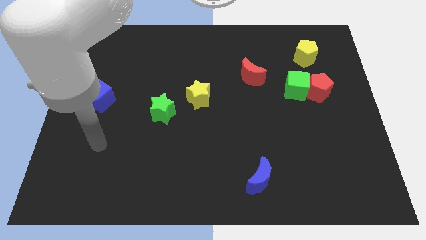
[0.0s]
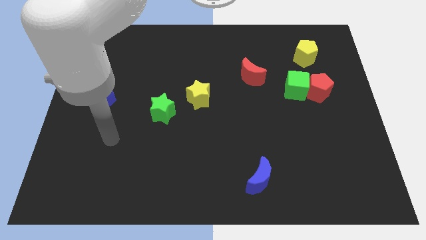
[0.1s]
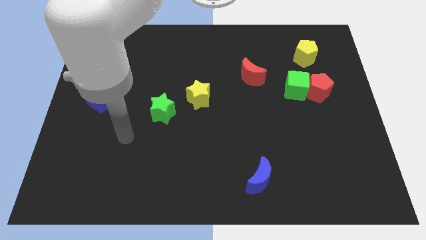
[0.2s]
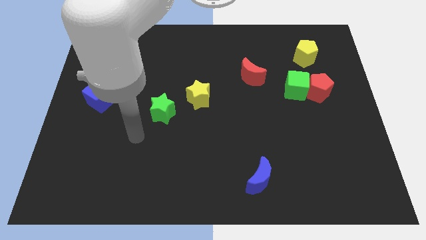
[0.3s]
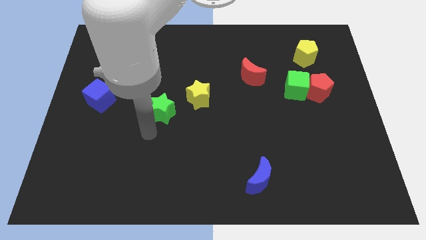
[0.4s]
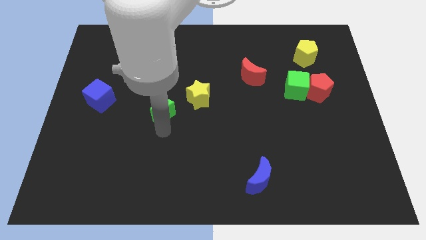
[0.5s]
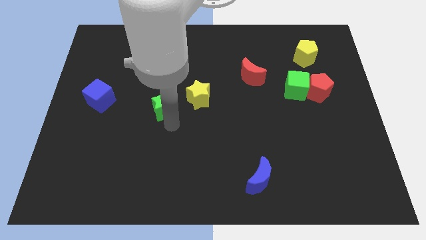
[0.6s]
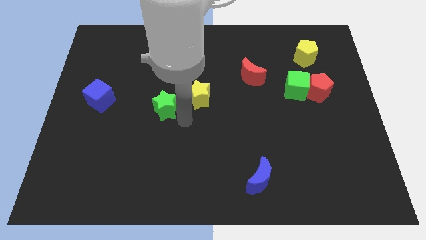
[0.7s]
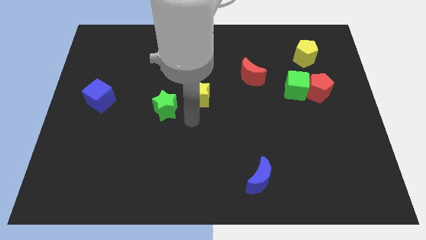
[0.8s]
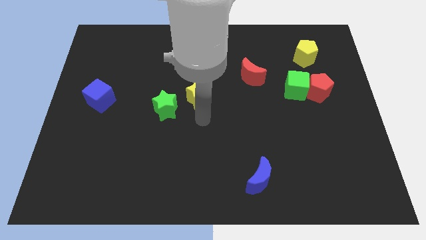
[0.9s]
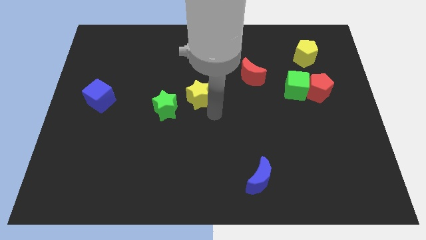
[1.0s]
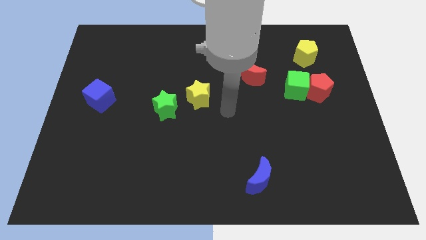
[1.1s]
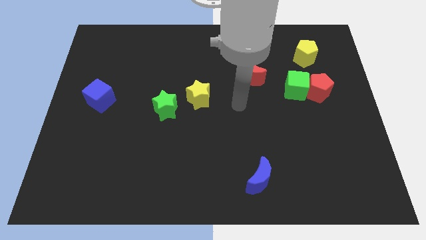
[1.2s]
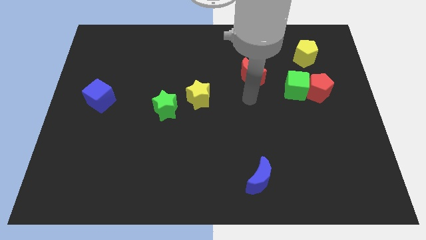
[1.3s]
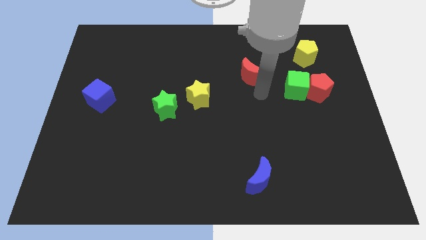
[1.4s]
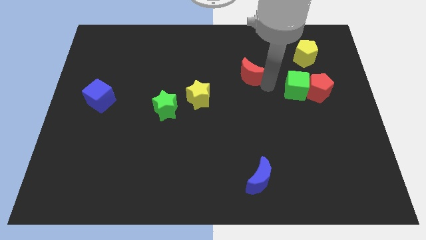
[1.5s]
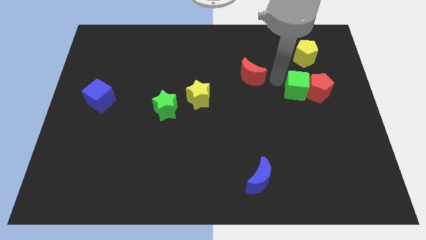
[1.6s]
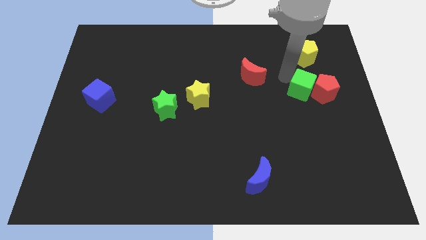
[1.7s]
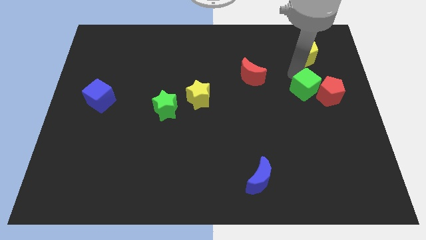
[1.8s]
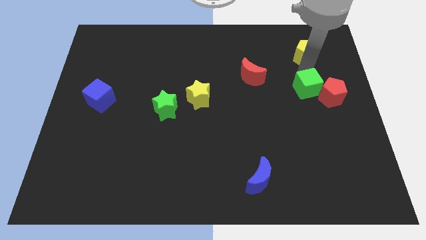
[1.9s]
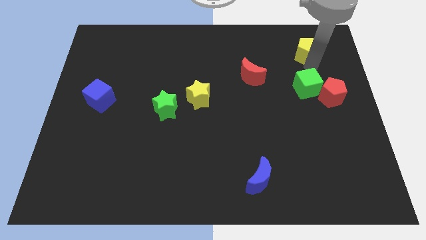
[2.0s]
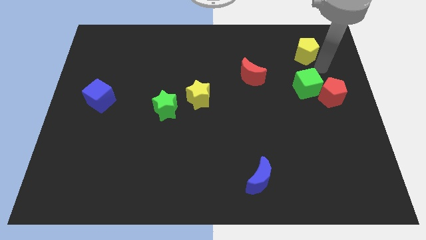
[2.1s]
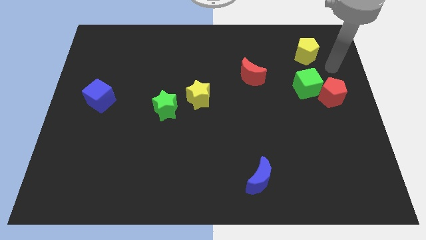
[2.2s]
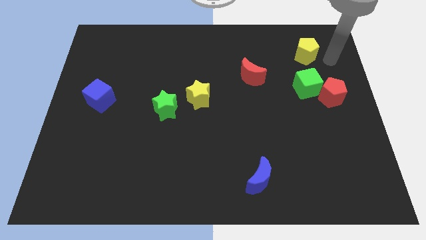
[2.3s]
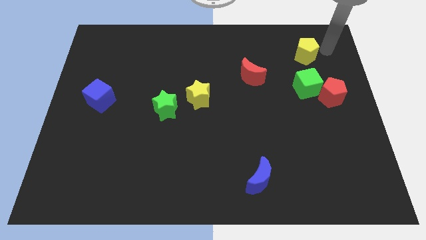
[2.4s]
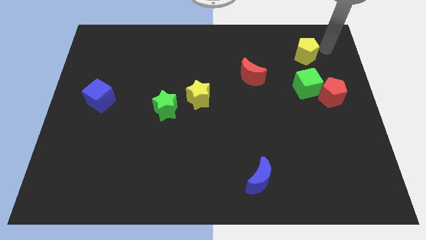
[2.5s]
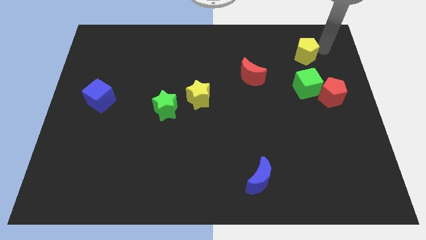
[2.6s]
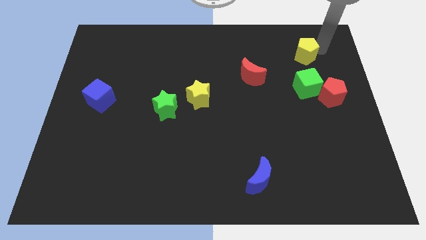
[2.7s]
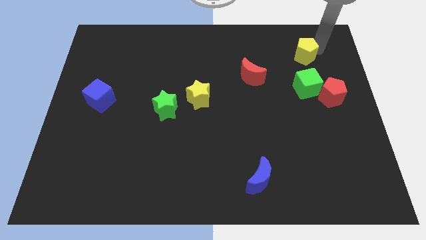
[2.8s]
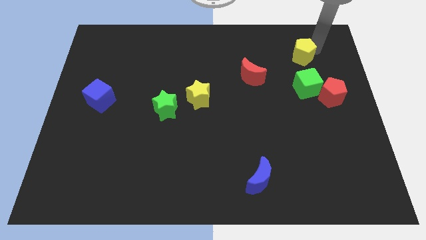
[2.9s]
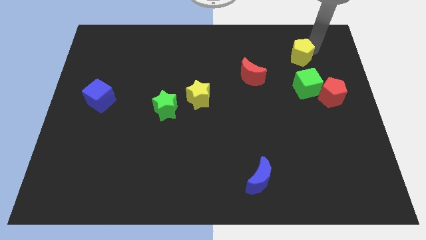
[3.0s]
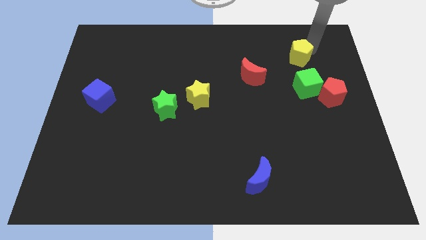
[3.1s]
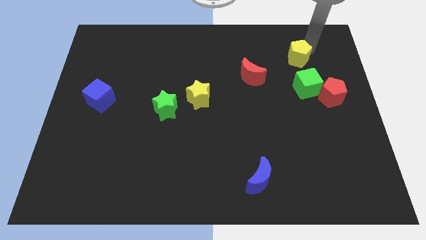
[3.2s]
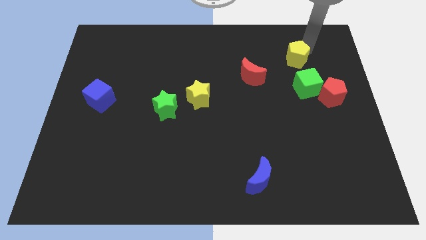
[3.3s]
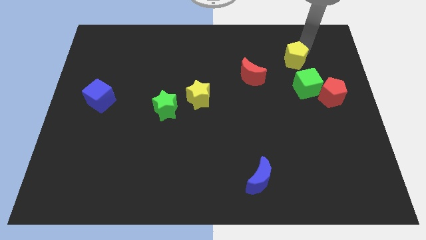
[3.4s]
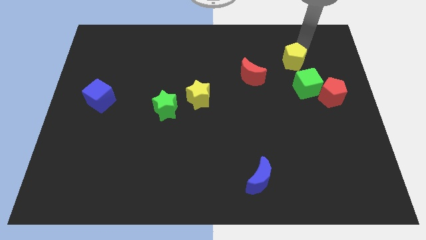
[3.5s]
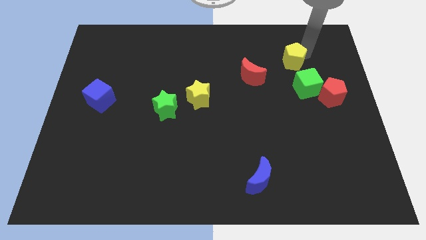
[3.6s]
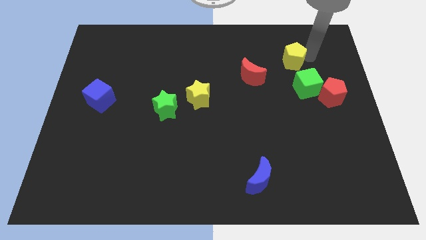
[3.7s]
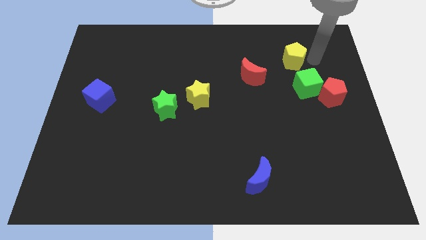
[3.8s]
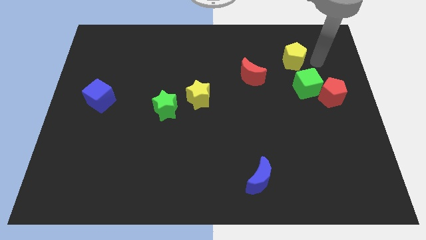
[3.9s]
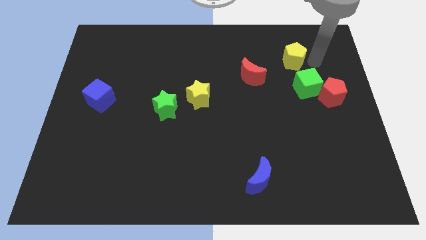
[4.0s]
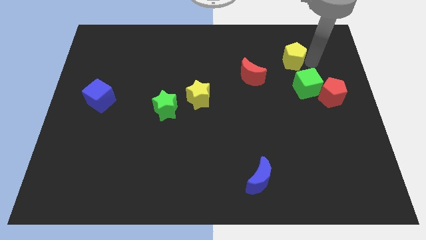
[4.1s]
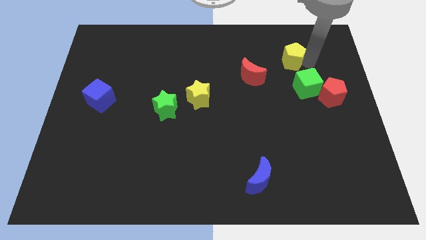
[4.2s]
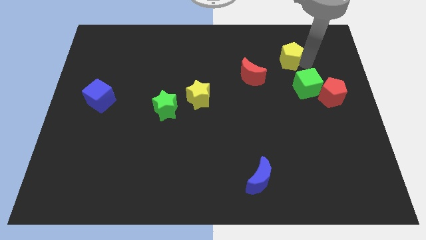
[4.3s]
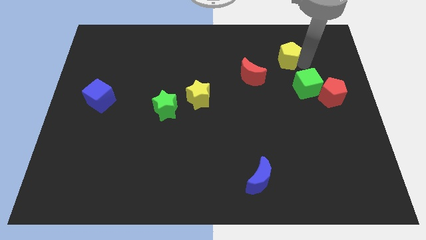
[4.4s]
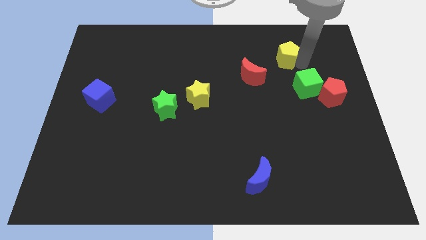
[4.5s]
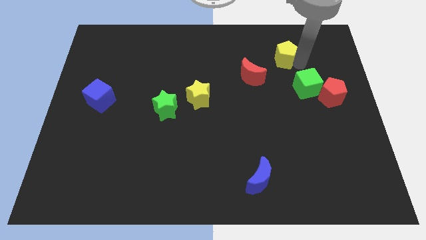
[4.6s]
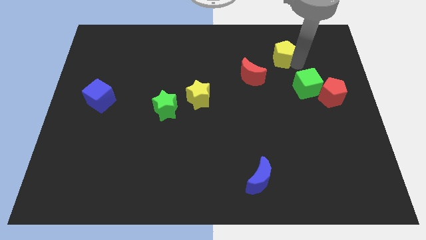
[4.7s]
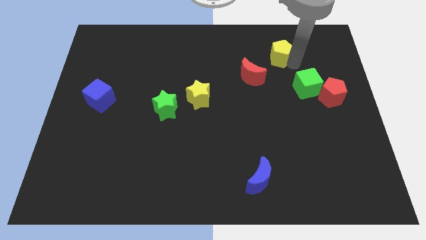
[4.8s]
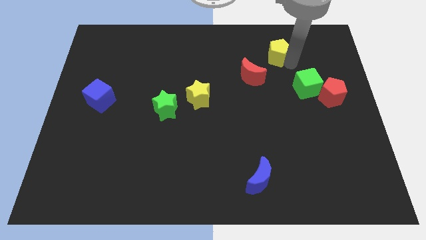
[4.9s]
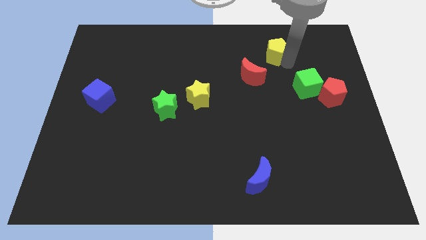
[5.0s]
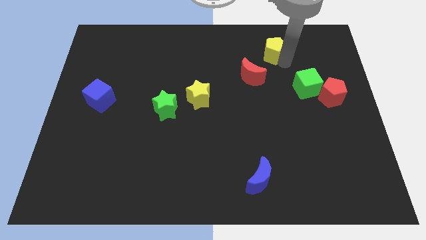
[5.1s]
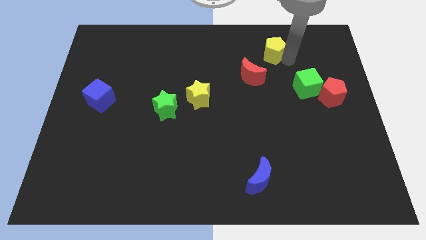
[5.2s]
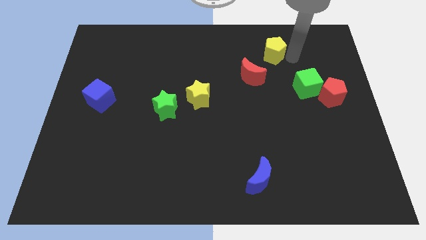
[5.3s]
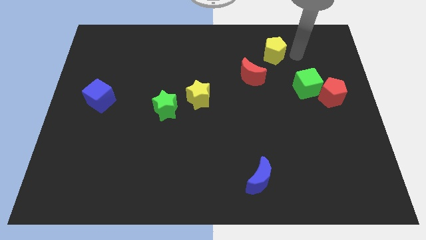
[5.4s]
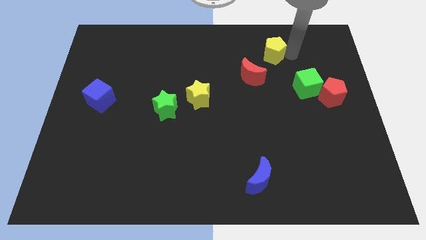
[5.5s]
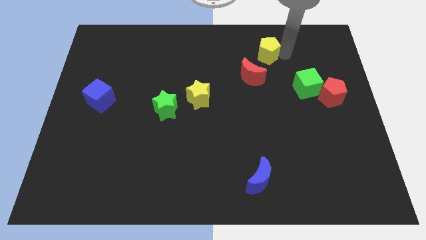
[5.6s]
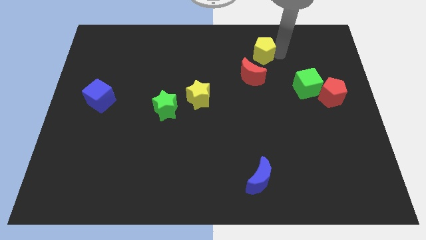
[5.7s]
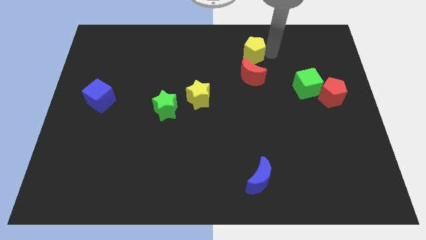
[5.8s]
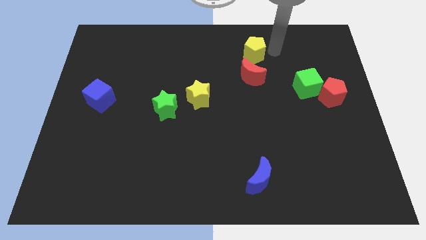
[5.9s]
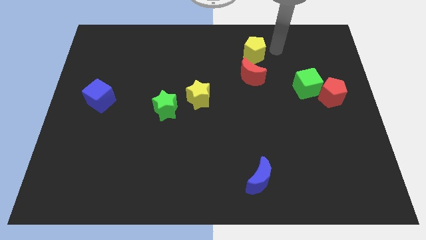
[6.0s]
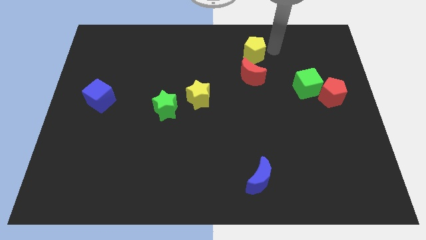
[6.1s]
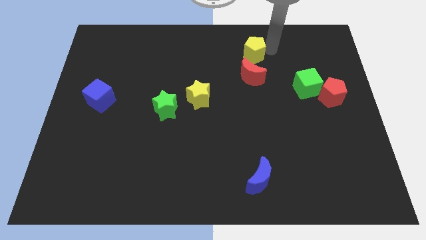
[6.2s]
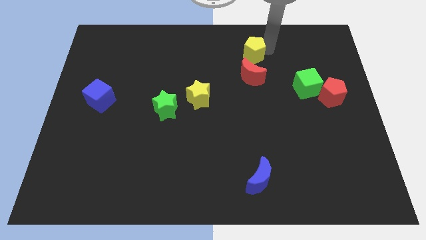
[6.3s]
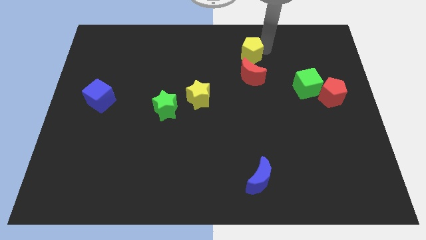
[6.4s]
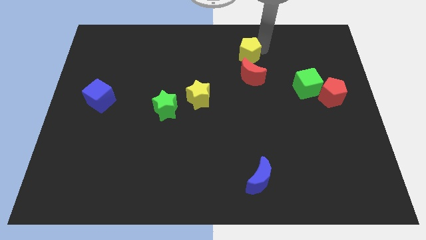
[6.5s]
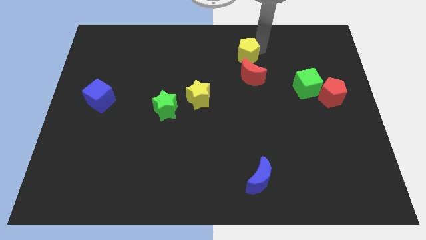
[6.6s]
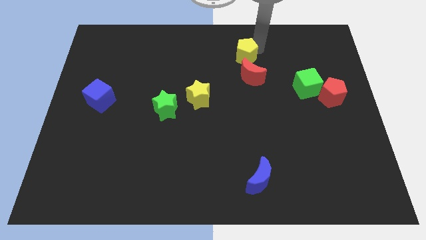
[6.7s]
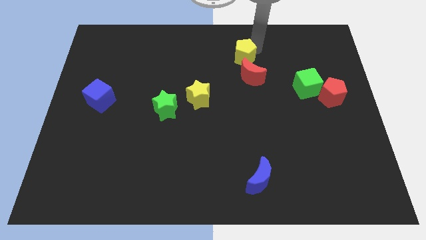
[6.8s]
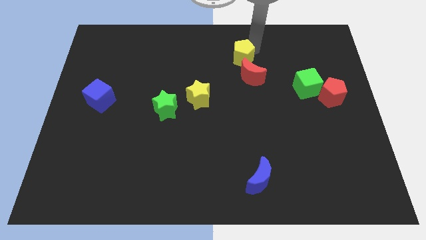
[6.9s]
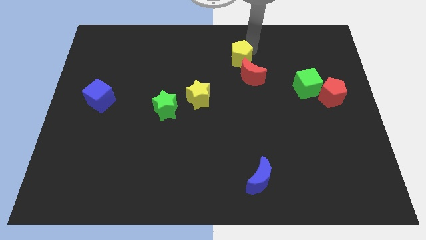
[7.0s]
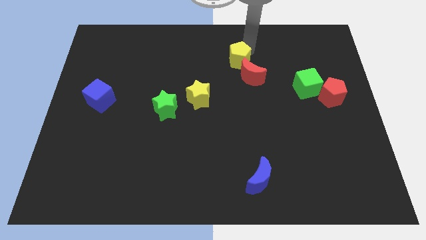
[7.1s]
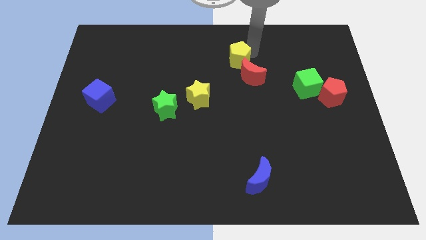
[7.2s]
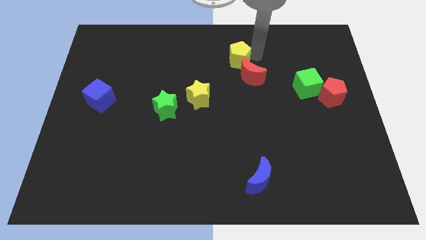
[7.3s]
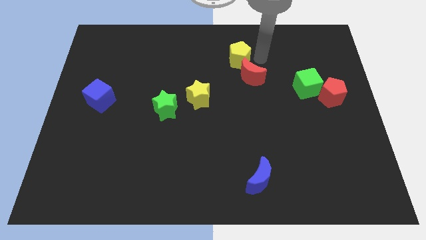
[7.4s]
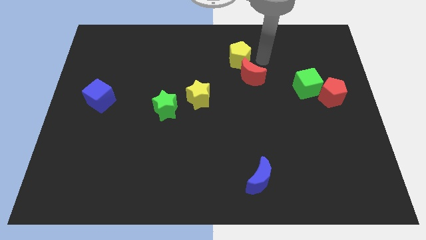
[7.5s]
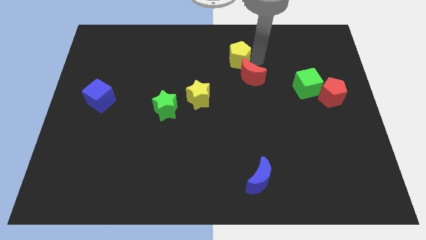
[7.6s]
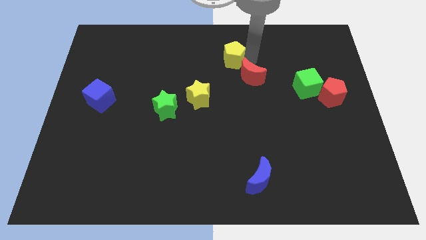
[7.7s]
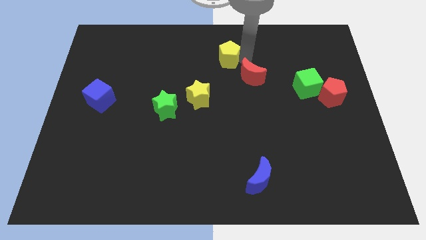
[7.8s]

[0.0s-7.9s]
push the yellow pentagon to the left

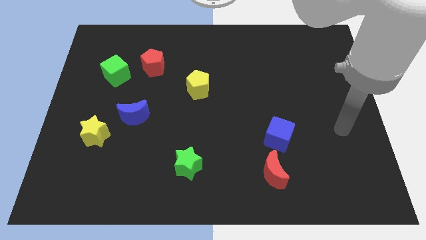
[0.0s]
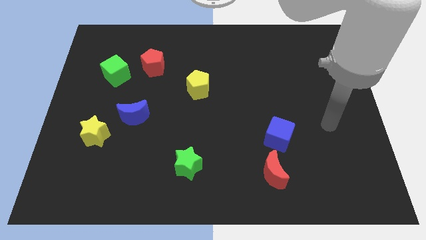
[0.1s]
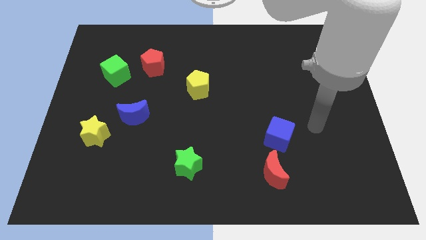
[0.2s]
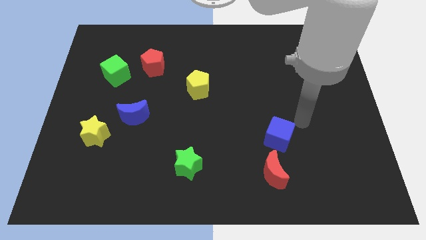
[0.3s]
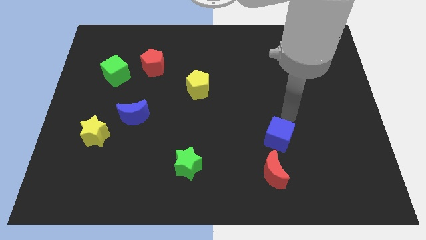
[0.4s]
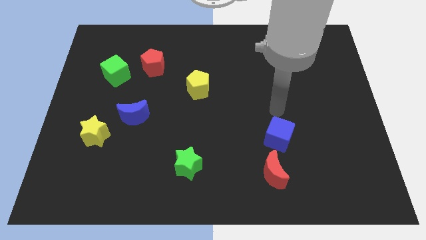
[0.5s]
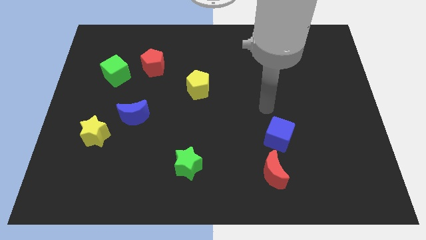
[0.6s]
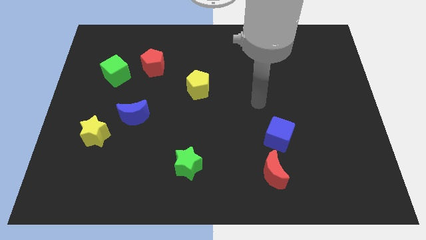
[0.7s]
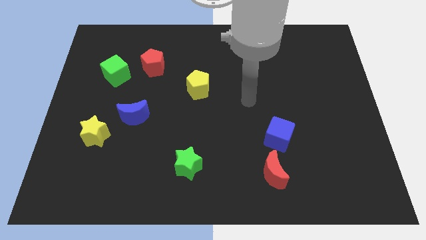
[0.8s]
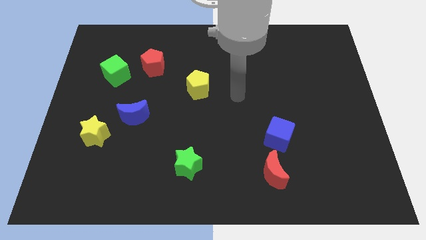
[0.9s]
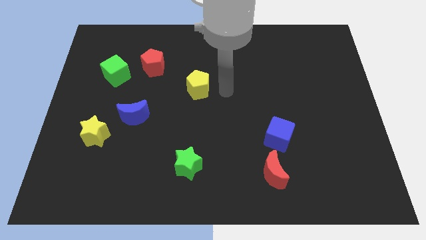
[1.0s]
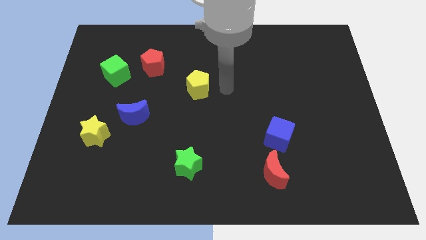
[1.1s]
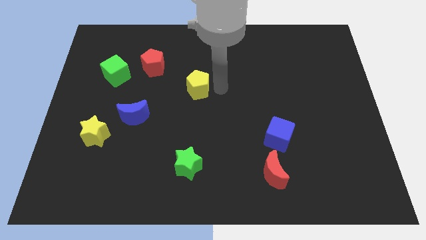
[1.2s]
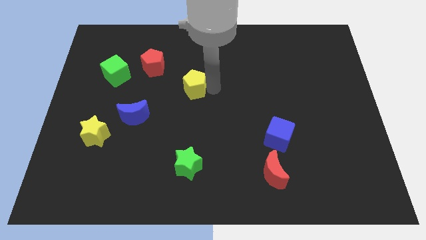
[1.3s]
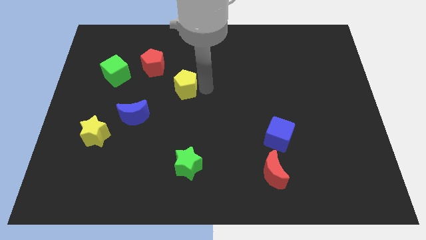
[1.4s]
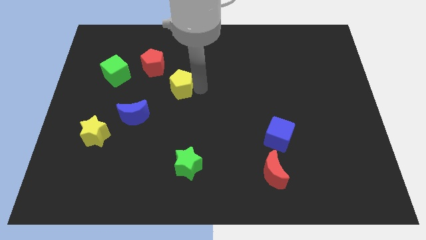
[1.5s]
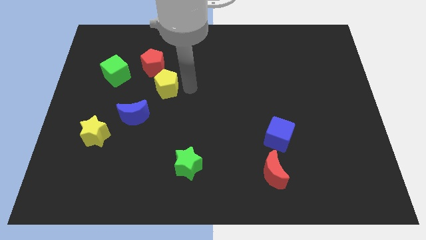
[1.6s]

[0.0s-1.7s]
push the yellow pentagon a bit to the left
